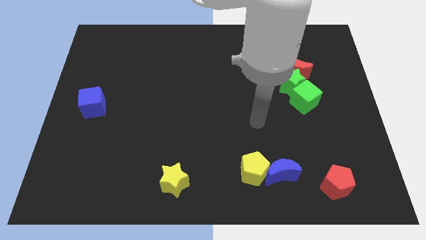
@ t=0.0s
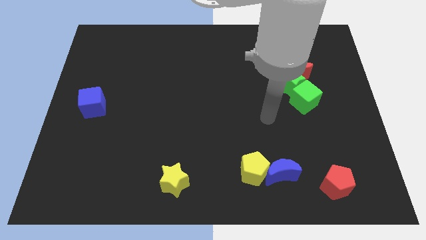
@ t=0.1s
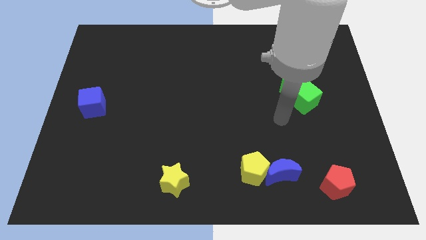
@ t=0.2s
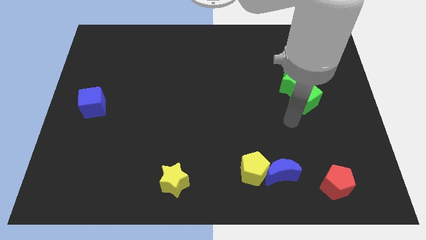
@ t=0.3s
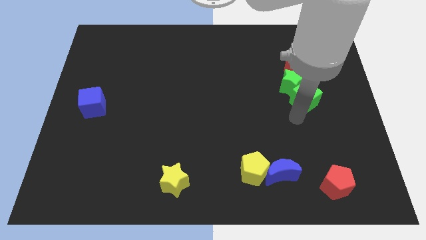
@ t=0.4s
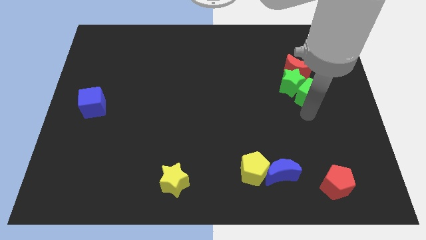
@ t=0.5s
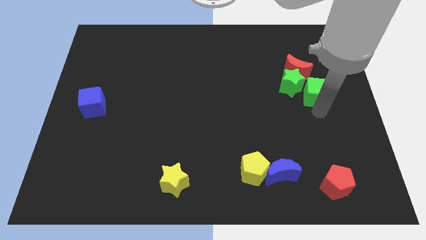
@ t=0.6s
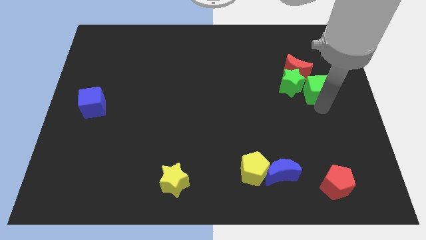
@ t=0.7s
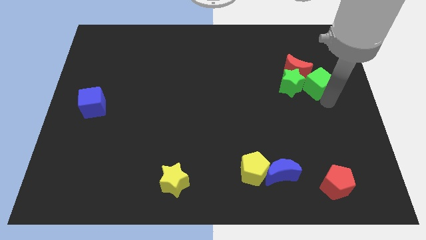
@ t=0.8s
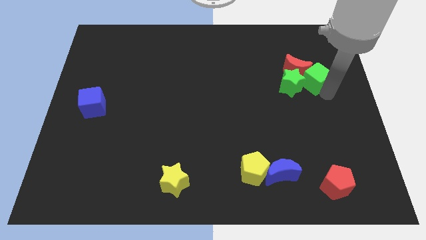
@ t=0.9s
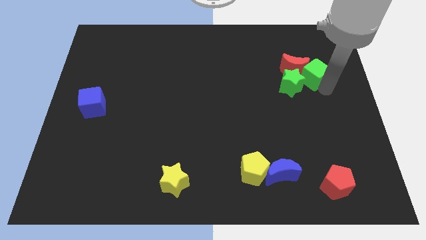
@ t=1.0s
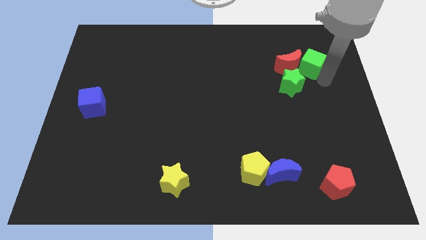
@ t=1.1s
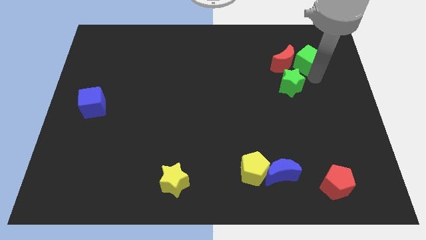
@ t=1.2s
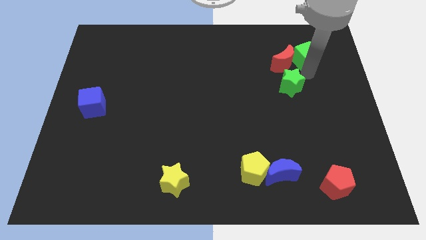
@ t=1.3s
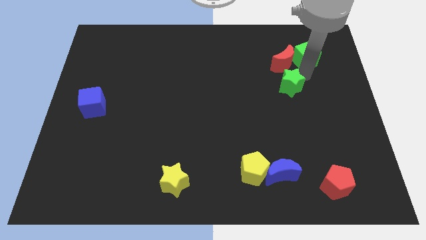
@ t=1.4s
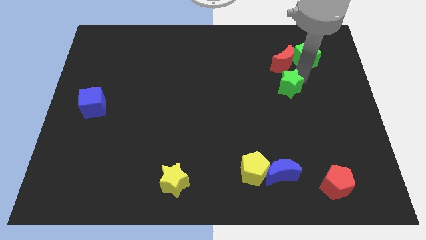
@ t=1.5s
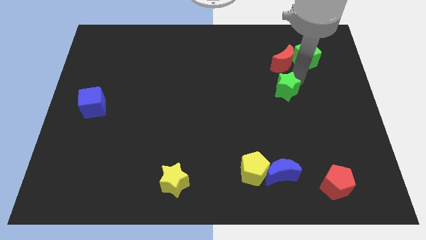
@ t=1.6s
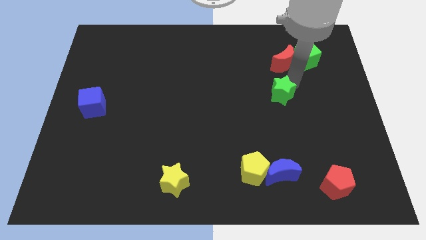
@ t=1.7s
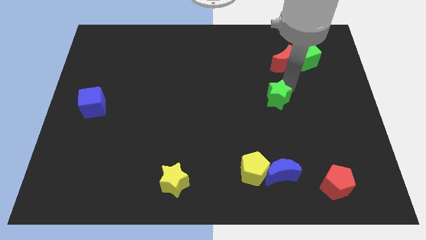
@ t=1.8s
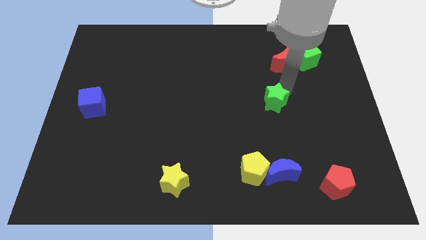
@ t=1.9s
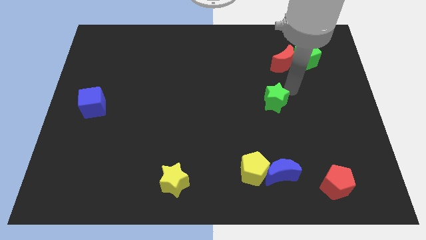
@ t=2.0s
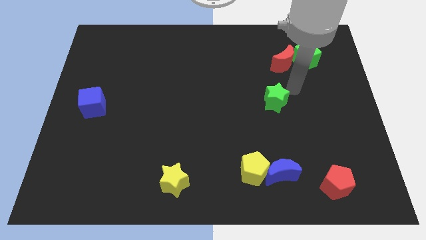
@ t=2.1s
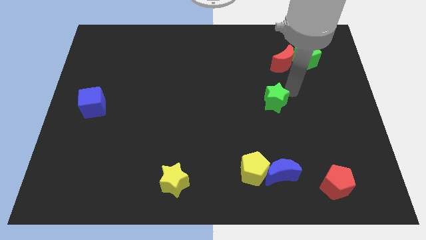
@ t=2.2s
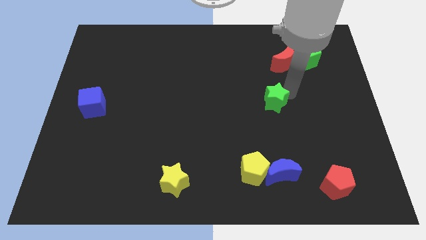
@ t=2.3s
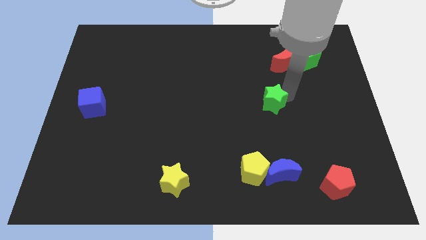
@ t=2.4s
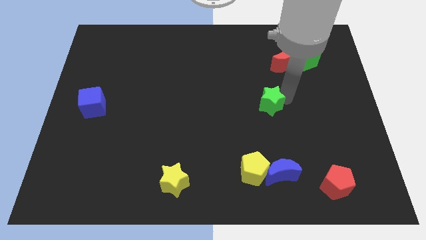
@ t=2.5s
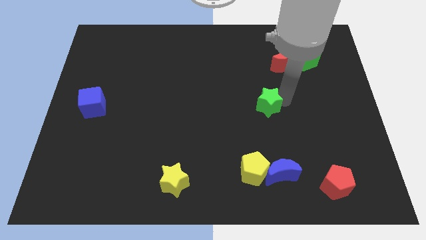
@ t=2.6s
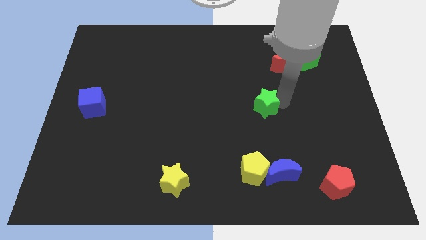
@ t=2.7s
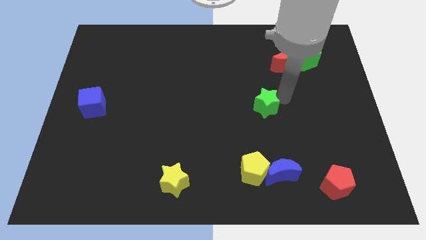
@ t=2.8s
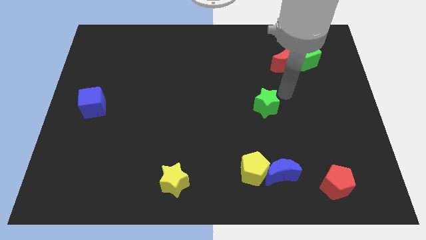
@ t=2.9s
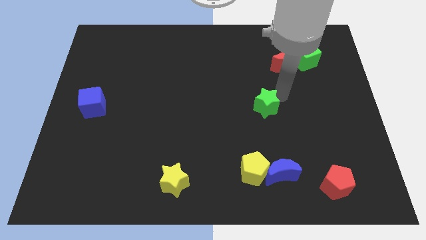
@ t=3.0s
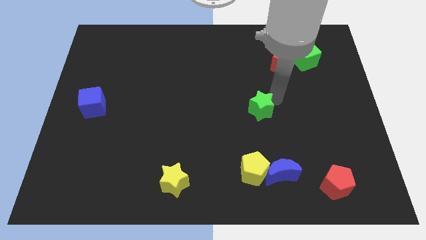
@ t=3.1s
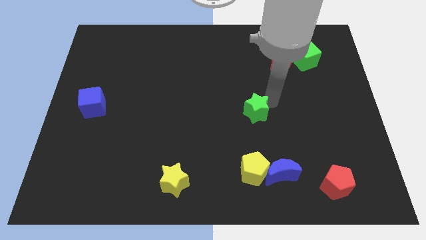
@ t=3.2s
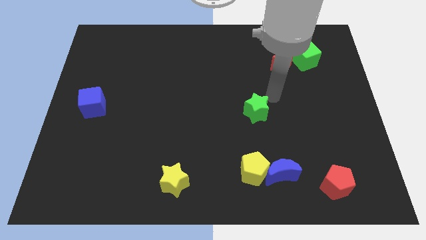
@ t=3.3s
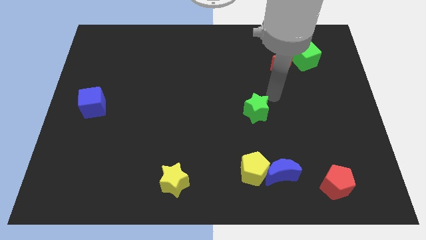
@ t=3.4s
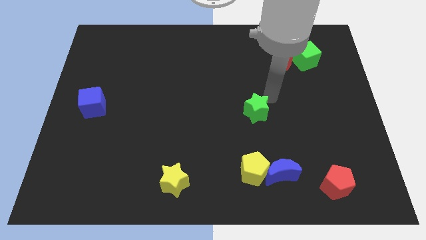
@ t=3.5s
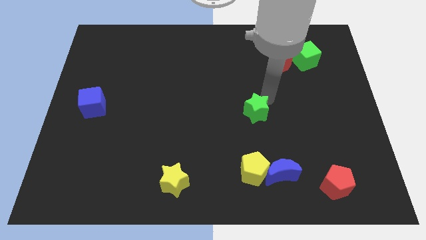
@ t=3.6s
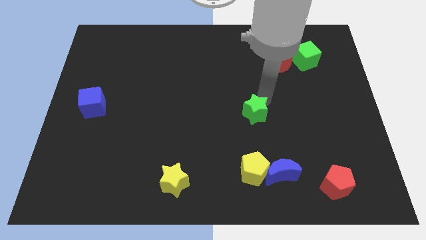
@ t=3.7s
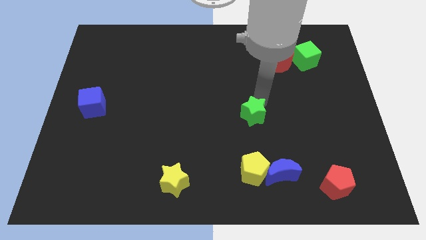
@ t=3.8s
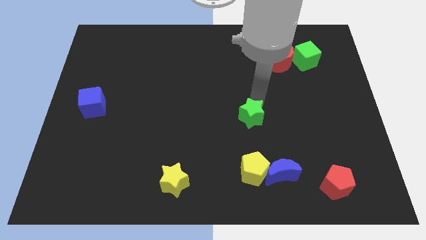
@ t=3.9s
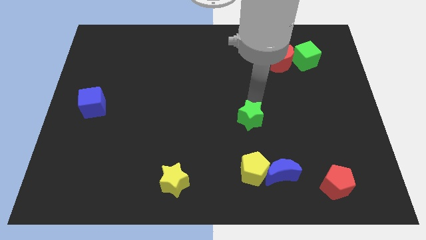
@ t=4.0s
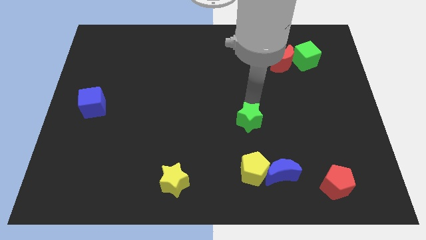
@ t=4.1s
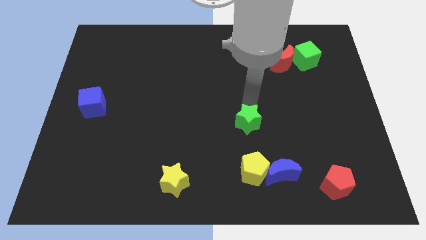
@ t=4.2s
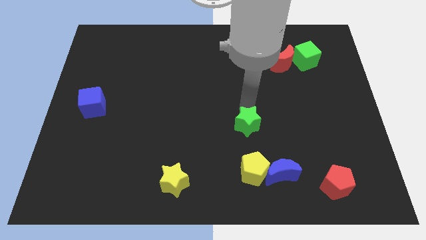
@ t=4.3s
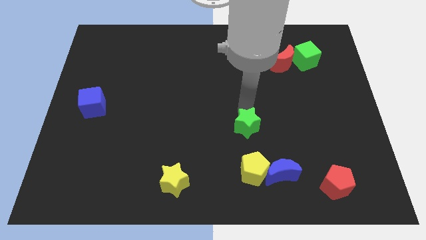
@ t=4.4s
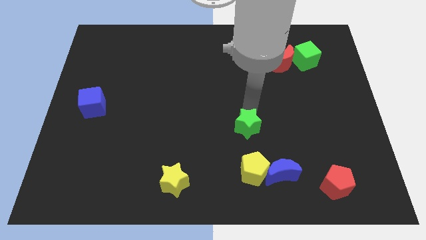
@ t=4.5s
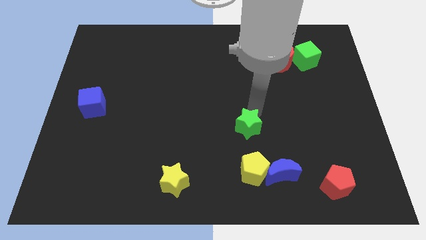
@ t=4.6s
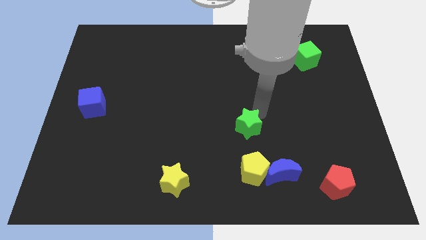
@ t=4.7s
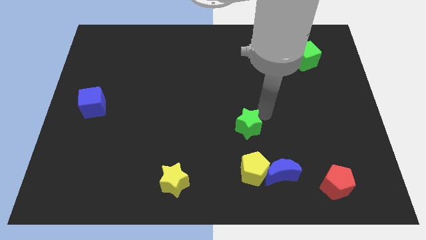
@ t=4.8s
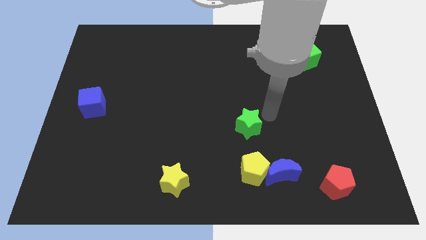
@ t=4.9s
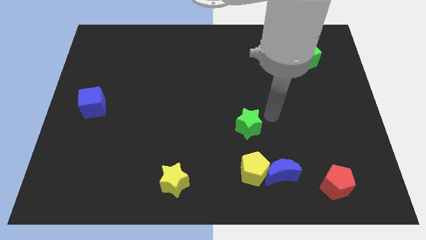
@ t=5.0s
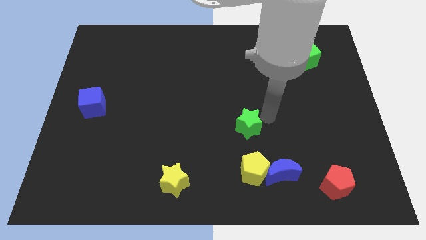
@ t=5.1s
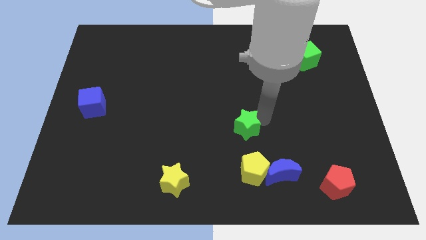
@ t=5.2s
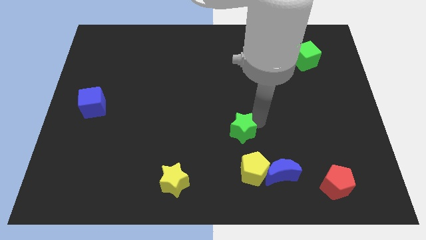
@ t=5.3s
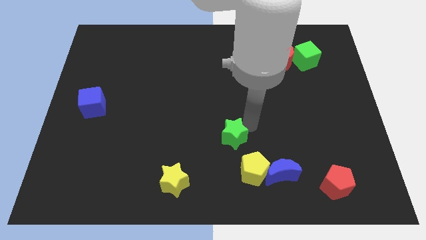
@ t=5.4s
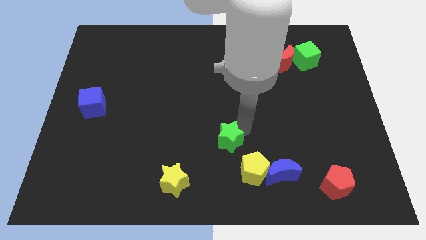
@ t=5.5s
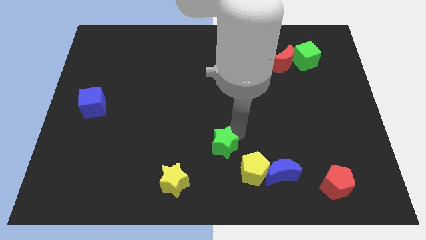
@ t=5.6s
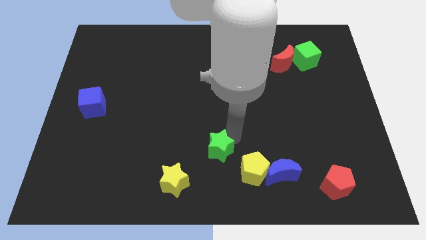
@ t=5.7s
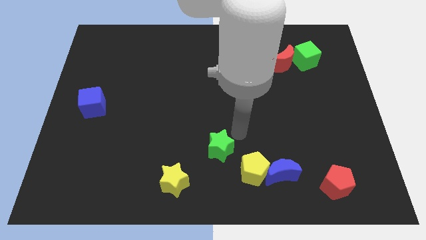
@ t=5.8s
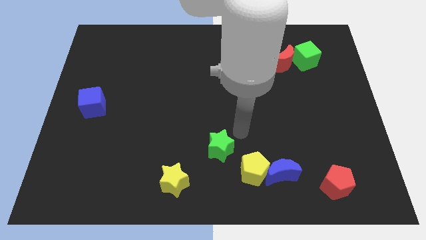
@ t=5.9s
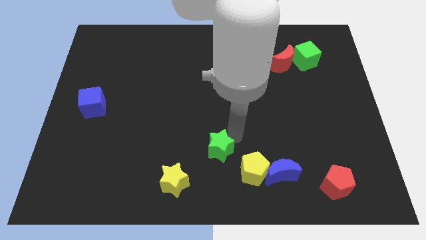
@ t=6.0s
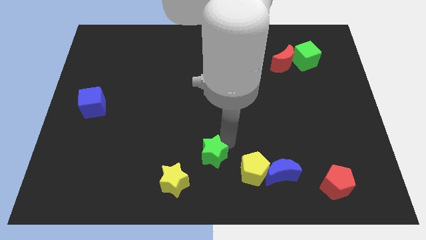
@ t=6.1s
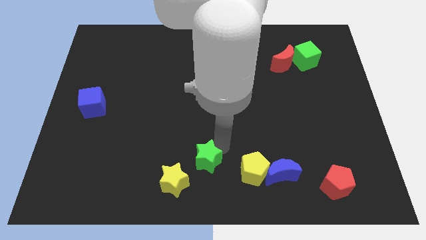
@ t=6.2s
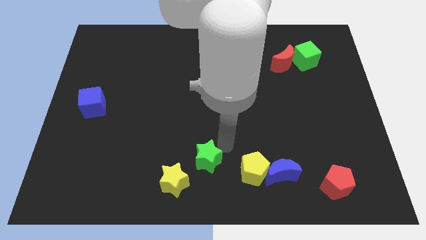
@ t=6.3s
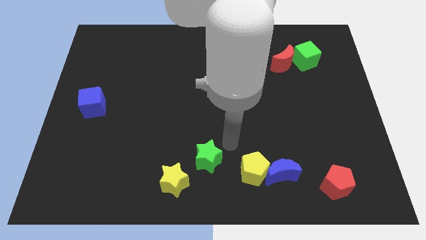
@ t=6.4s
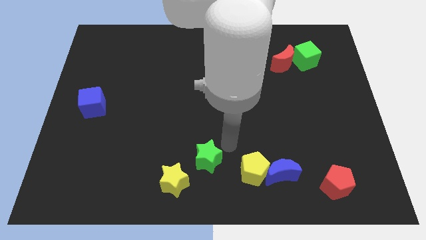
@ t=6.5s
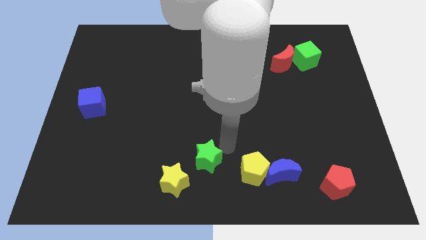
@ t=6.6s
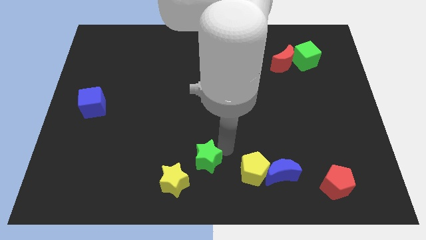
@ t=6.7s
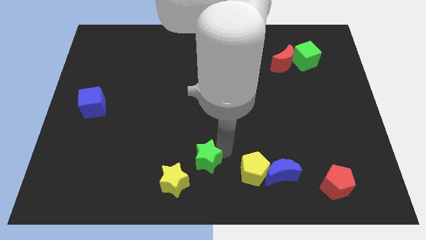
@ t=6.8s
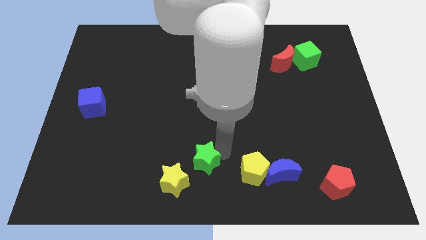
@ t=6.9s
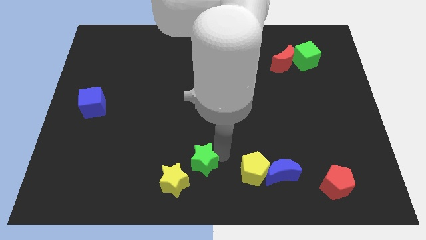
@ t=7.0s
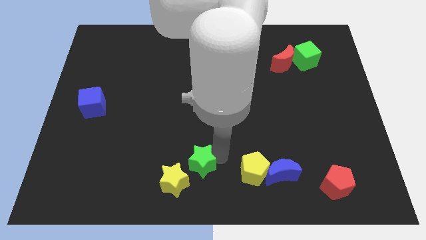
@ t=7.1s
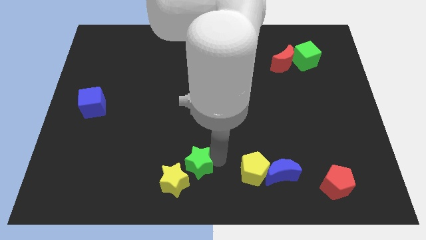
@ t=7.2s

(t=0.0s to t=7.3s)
slide the green star towards the yellow star

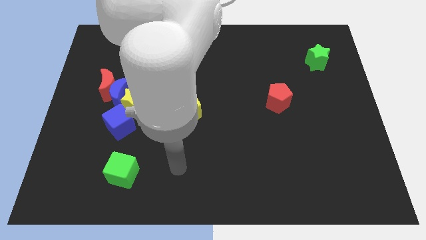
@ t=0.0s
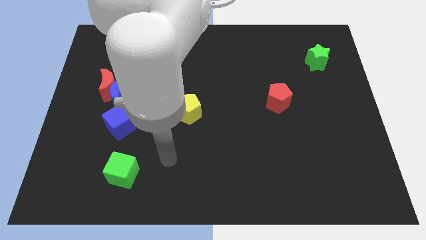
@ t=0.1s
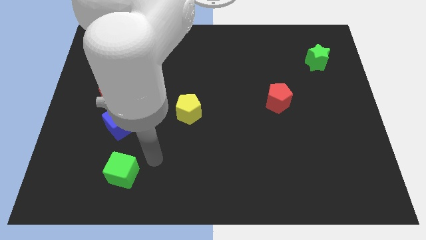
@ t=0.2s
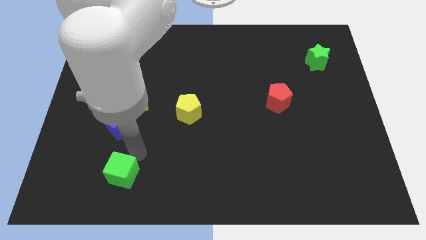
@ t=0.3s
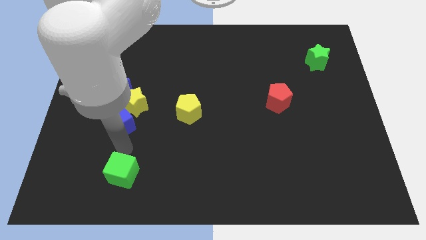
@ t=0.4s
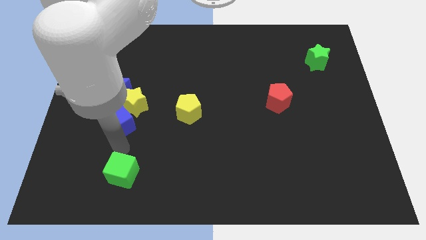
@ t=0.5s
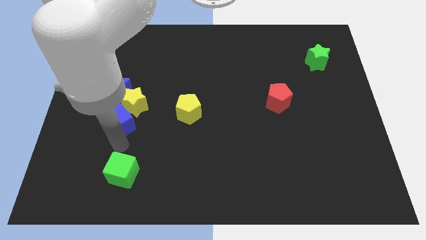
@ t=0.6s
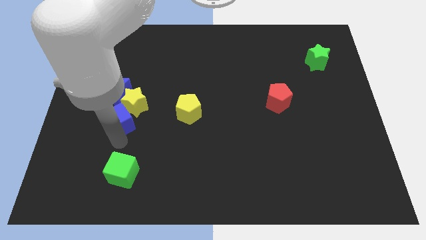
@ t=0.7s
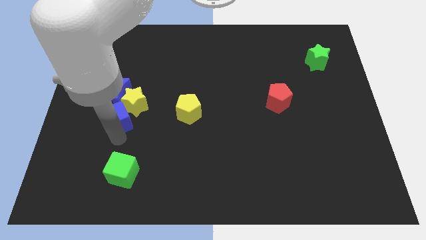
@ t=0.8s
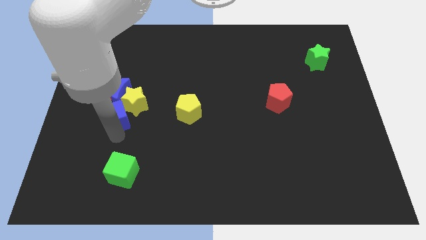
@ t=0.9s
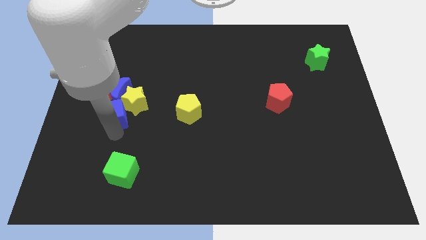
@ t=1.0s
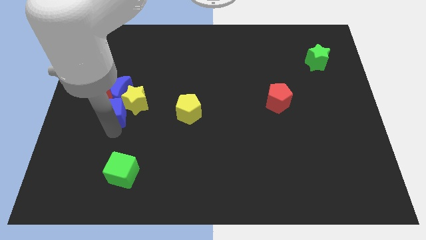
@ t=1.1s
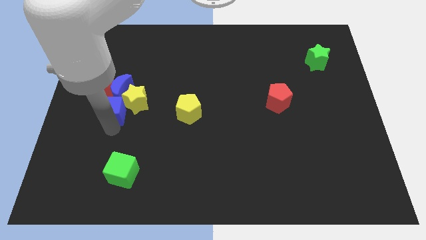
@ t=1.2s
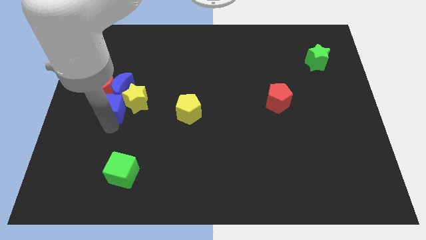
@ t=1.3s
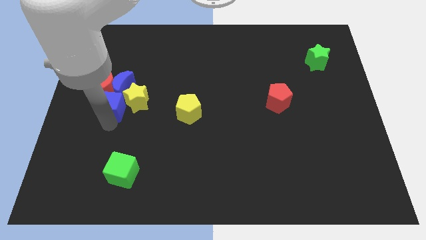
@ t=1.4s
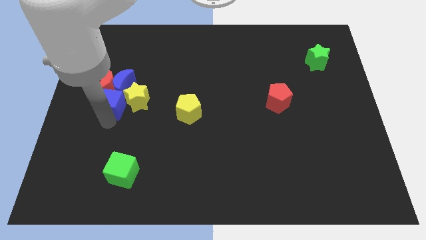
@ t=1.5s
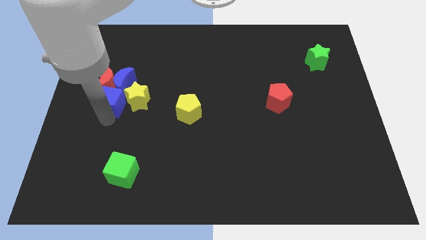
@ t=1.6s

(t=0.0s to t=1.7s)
push the blue cube towards the blue moon
